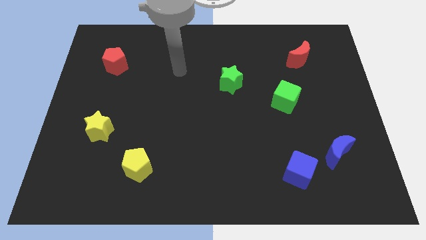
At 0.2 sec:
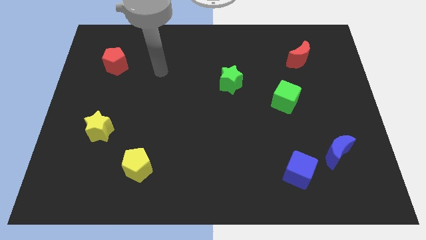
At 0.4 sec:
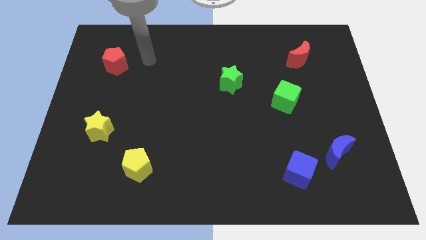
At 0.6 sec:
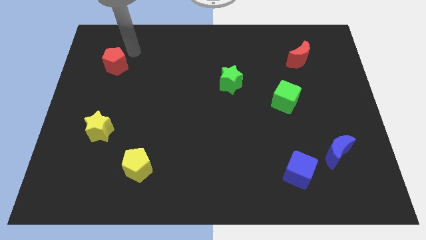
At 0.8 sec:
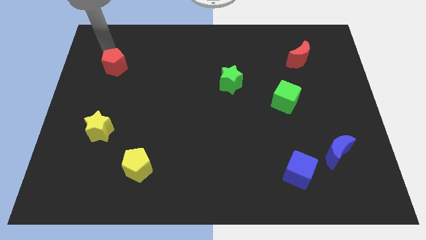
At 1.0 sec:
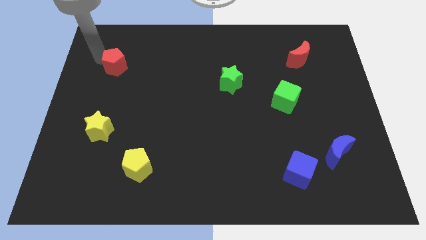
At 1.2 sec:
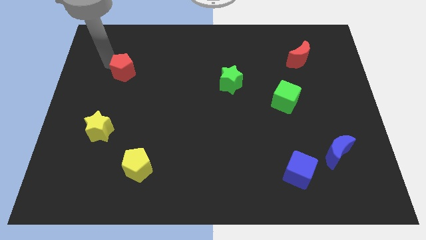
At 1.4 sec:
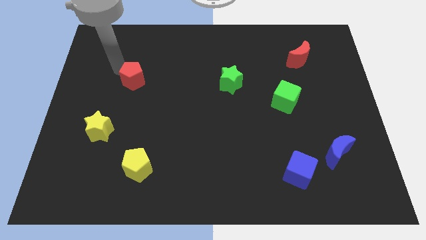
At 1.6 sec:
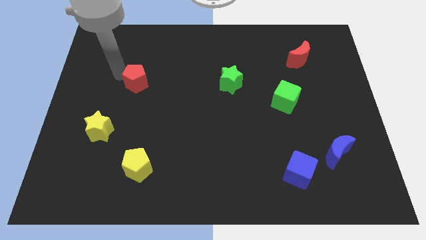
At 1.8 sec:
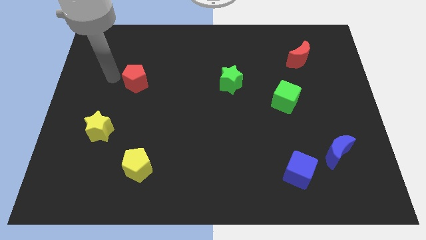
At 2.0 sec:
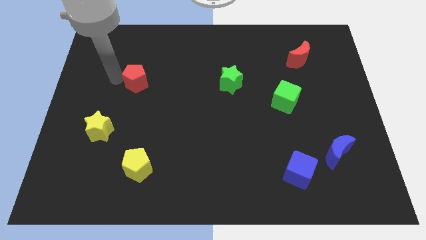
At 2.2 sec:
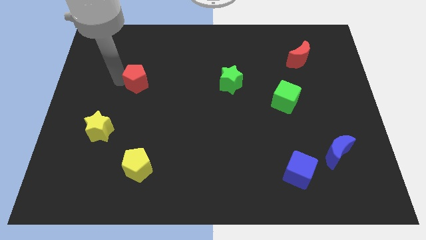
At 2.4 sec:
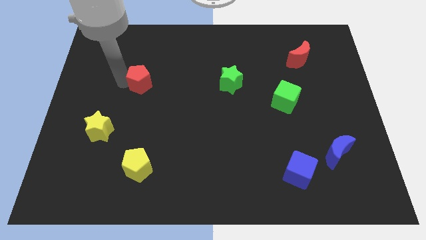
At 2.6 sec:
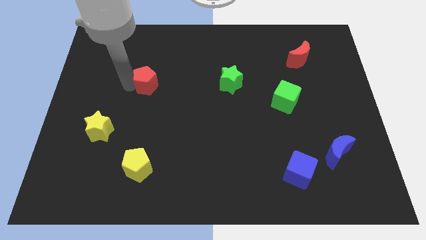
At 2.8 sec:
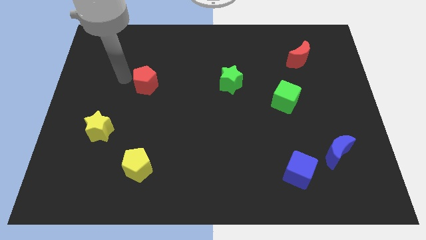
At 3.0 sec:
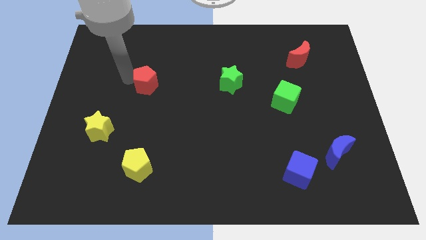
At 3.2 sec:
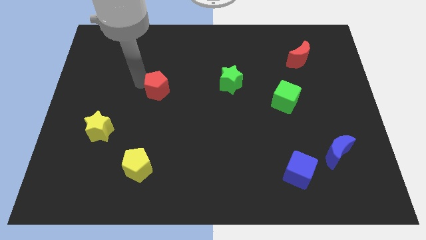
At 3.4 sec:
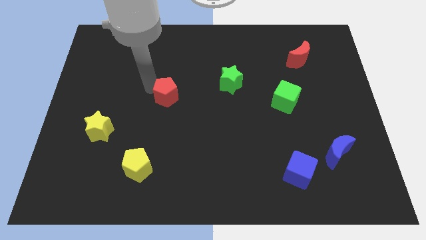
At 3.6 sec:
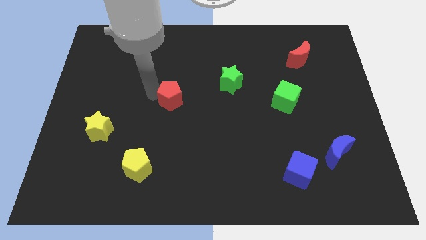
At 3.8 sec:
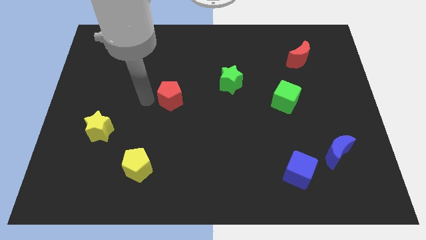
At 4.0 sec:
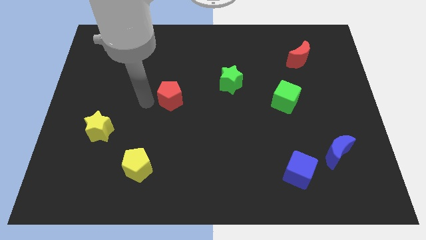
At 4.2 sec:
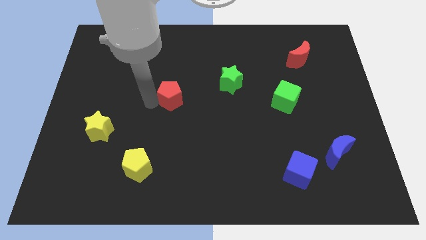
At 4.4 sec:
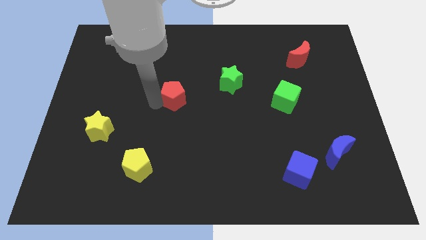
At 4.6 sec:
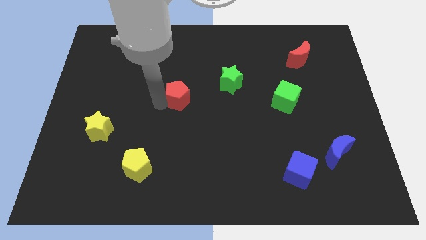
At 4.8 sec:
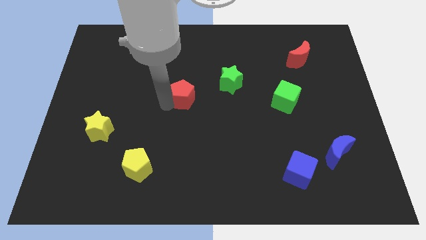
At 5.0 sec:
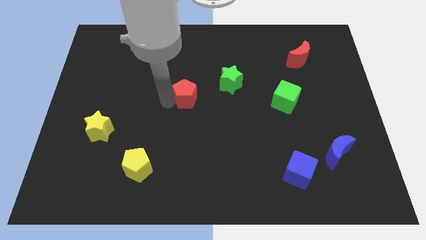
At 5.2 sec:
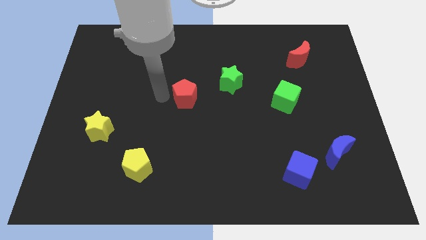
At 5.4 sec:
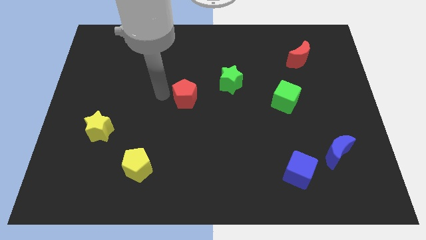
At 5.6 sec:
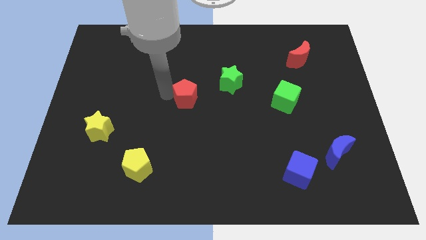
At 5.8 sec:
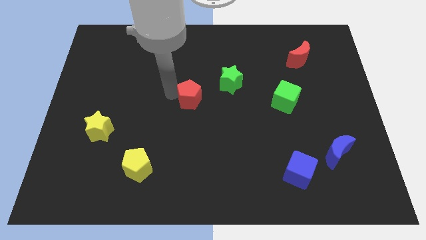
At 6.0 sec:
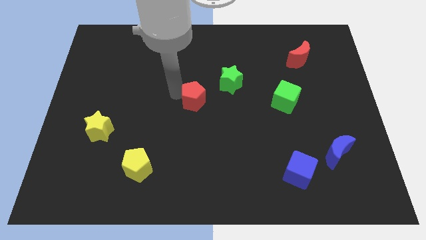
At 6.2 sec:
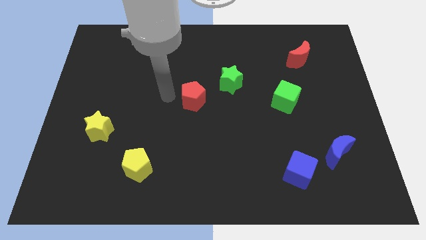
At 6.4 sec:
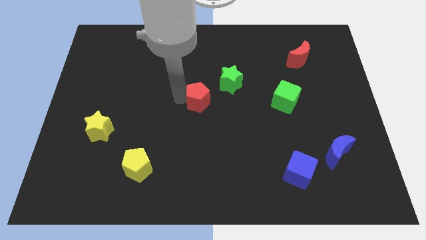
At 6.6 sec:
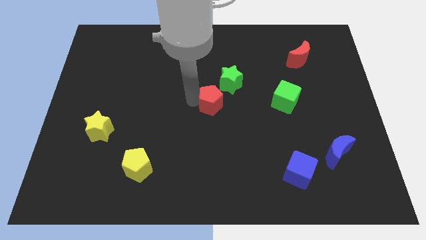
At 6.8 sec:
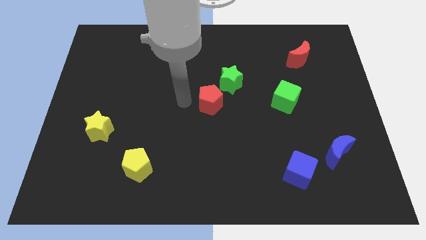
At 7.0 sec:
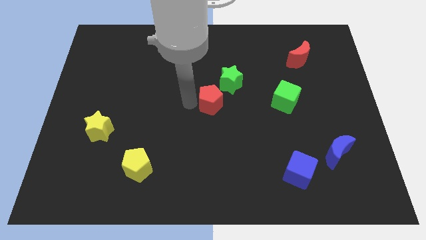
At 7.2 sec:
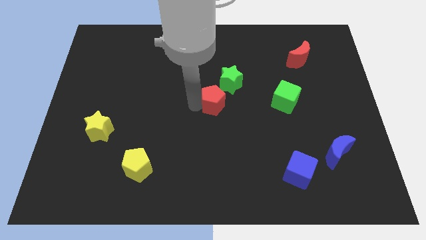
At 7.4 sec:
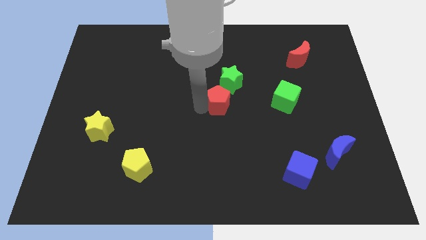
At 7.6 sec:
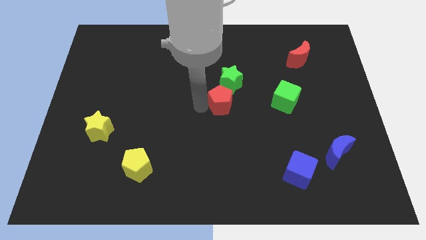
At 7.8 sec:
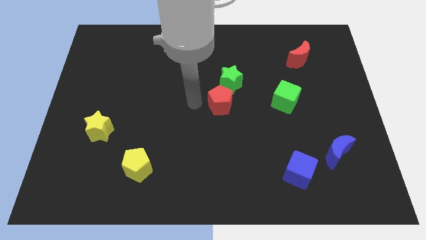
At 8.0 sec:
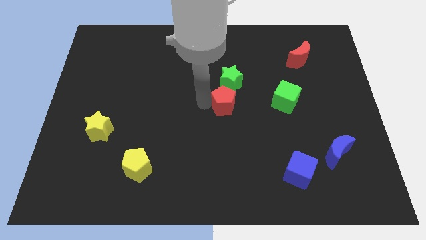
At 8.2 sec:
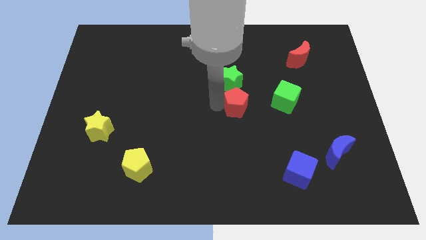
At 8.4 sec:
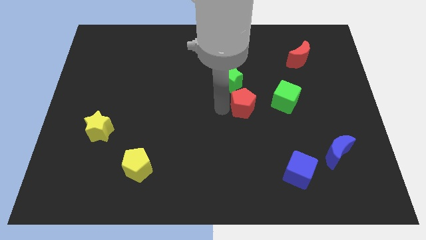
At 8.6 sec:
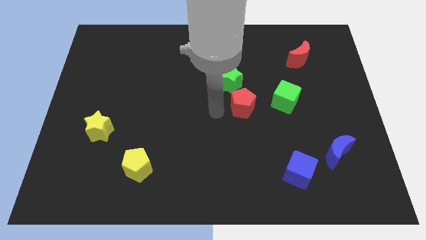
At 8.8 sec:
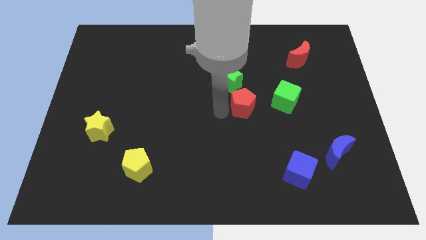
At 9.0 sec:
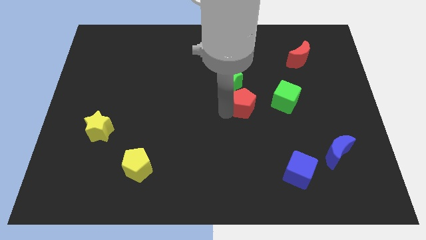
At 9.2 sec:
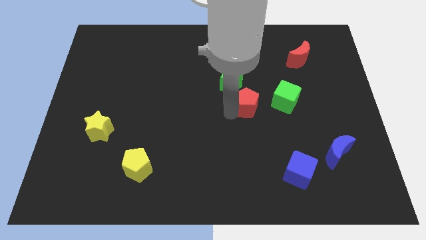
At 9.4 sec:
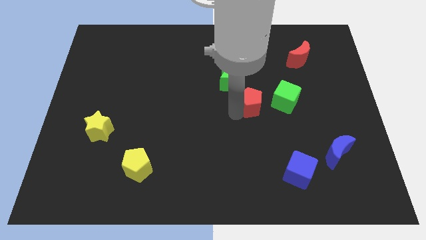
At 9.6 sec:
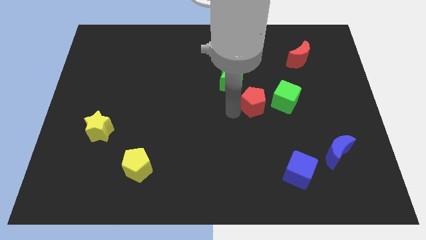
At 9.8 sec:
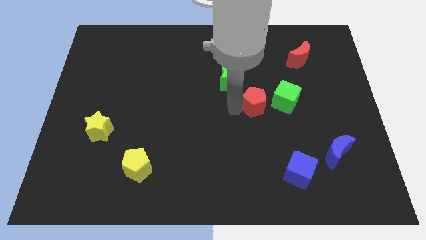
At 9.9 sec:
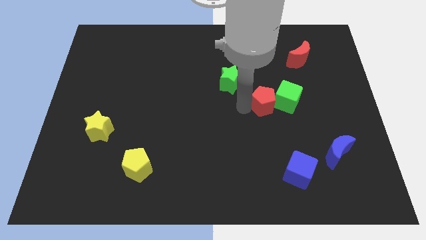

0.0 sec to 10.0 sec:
move the red pentagon towards the green cube

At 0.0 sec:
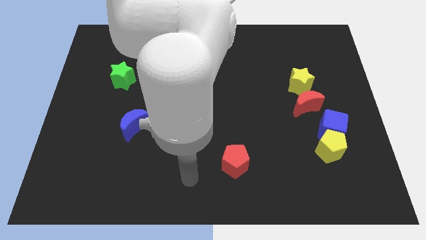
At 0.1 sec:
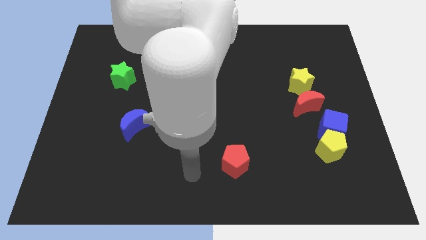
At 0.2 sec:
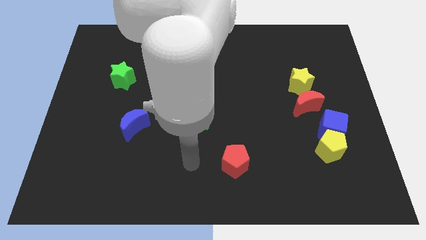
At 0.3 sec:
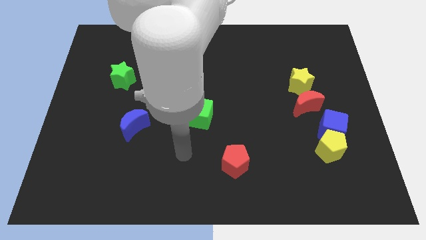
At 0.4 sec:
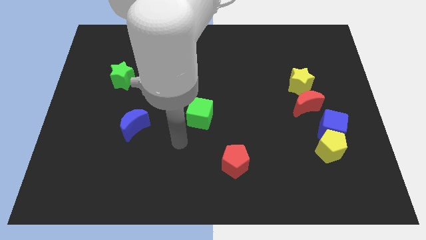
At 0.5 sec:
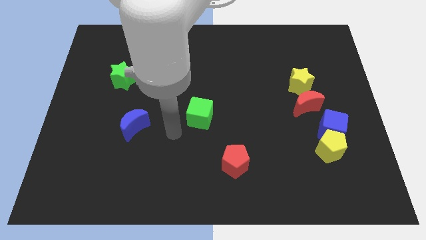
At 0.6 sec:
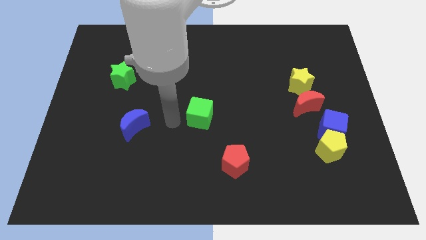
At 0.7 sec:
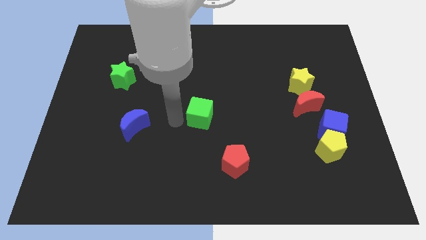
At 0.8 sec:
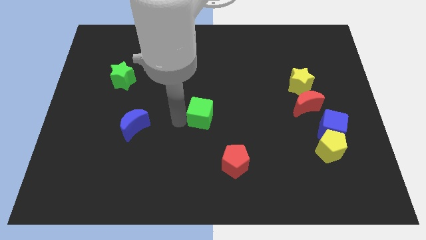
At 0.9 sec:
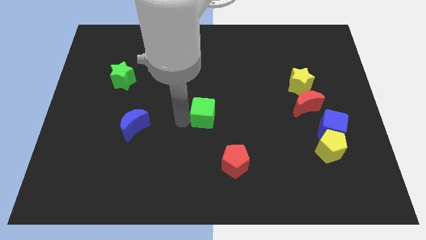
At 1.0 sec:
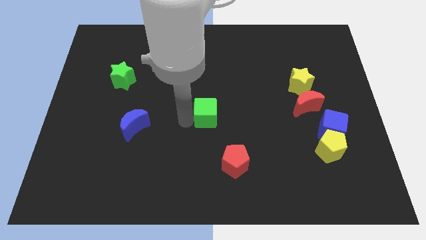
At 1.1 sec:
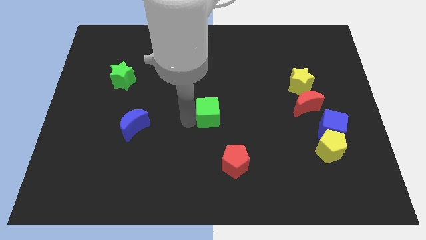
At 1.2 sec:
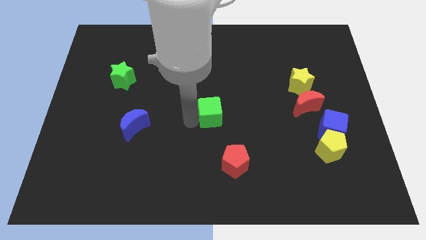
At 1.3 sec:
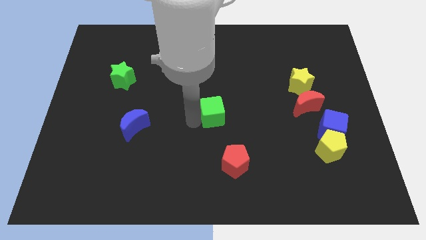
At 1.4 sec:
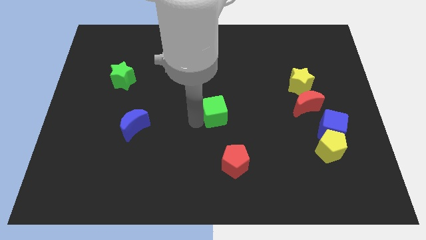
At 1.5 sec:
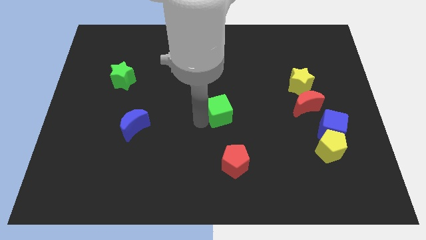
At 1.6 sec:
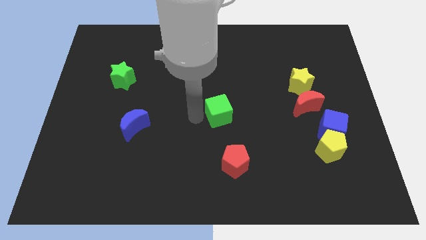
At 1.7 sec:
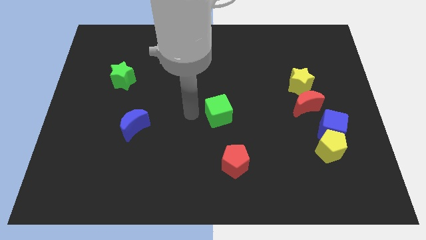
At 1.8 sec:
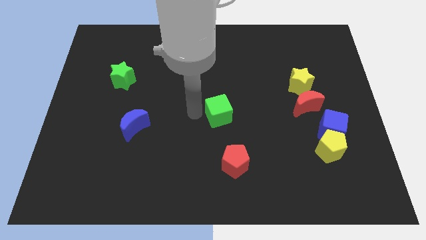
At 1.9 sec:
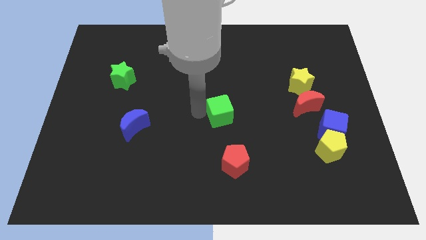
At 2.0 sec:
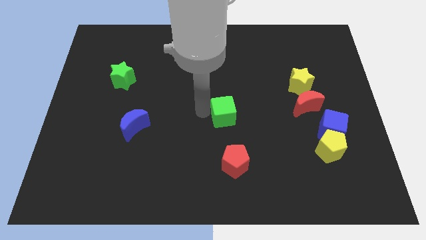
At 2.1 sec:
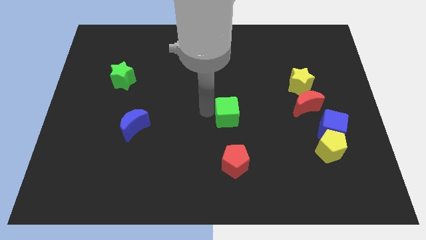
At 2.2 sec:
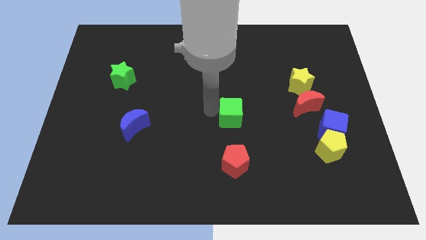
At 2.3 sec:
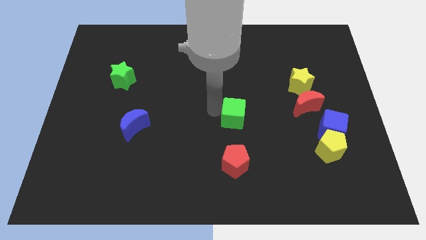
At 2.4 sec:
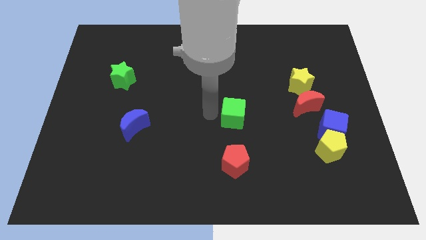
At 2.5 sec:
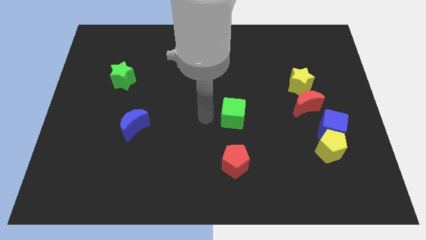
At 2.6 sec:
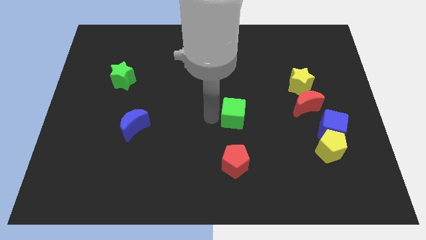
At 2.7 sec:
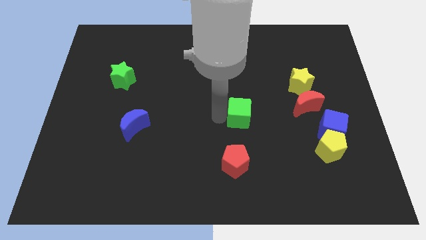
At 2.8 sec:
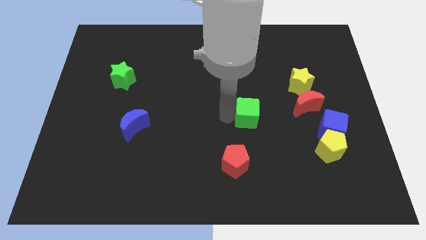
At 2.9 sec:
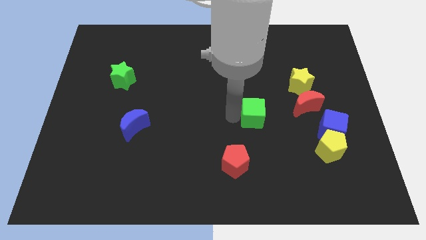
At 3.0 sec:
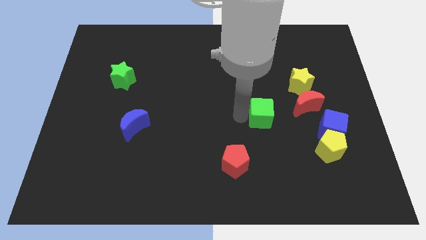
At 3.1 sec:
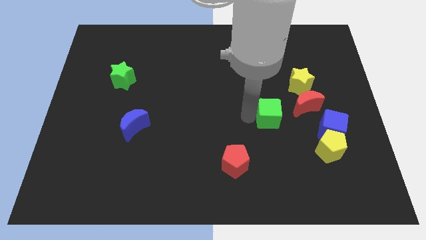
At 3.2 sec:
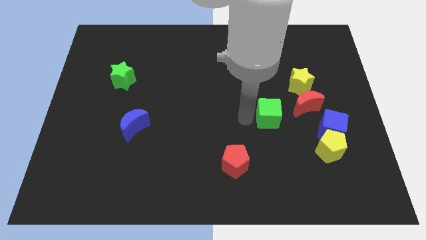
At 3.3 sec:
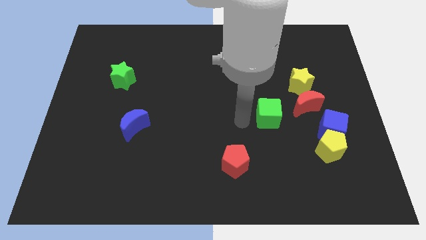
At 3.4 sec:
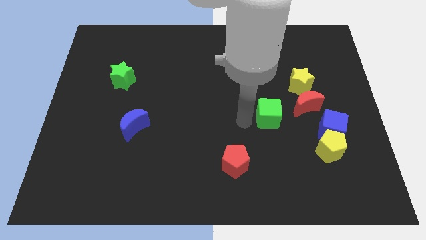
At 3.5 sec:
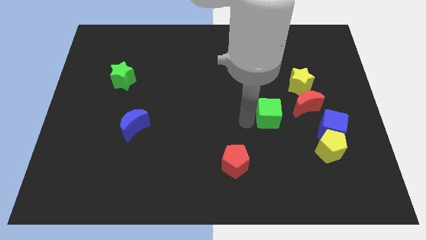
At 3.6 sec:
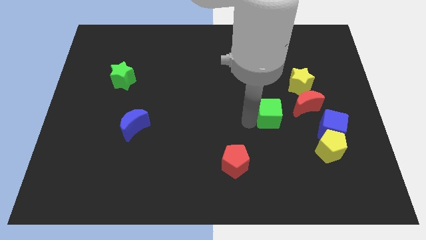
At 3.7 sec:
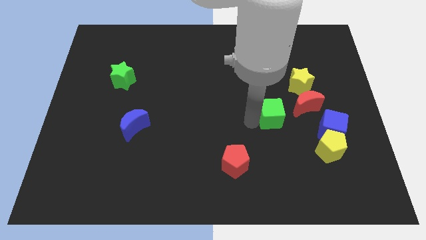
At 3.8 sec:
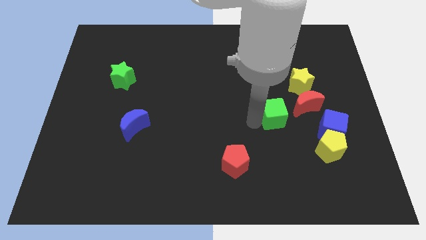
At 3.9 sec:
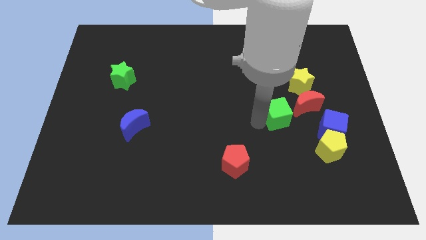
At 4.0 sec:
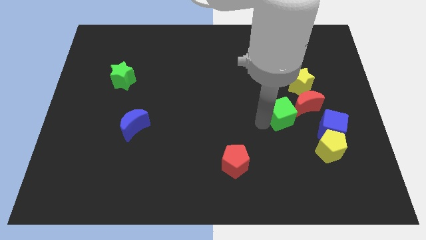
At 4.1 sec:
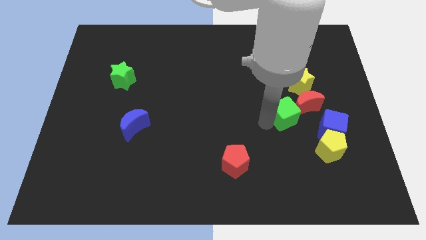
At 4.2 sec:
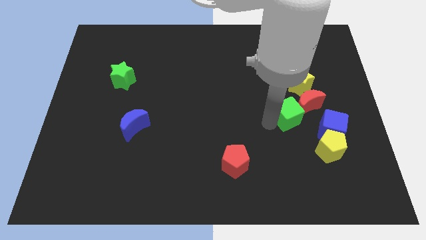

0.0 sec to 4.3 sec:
put the green cube to the red moon
